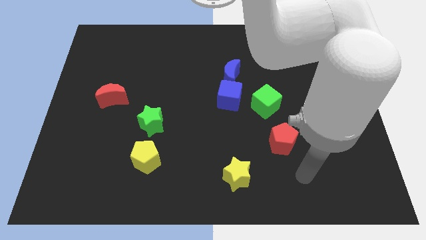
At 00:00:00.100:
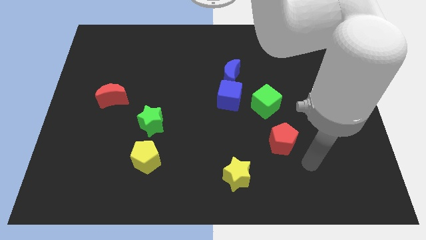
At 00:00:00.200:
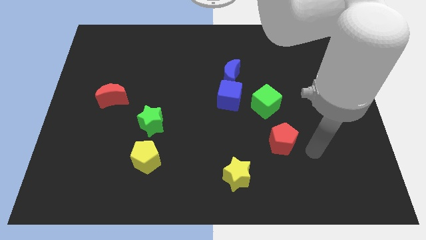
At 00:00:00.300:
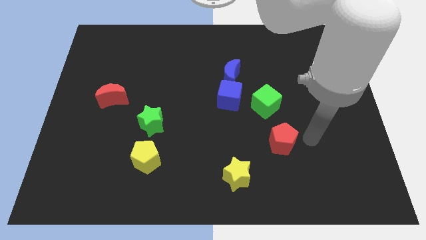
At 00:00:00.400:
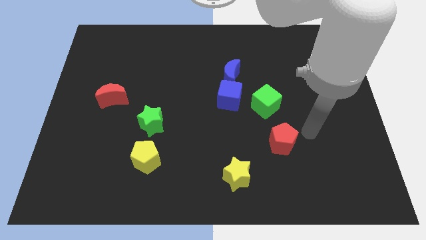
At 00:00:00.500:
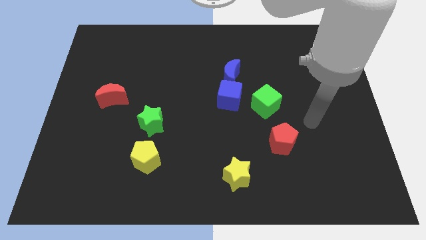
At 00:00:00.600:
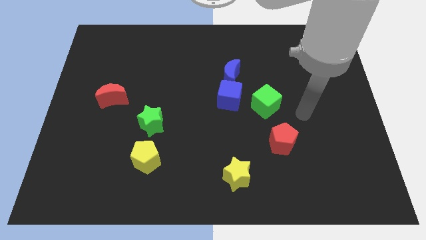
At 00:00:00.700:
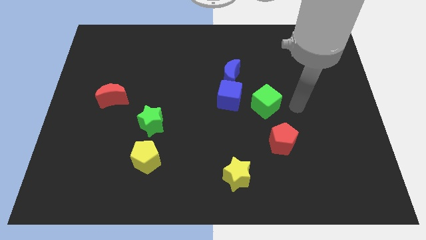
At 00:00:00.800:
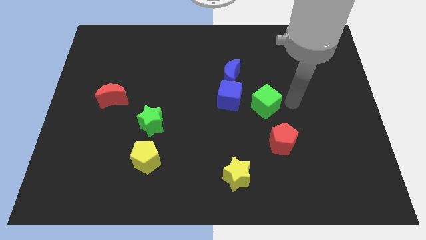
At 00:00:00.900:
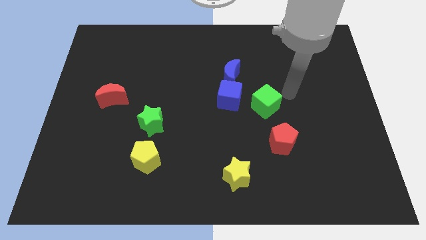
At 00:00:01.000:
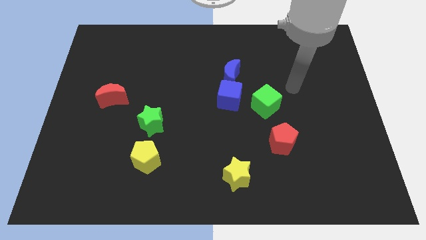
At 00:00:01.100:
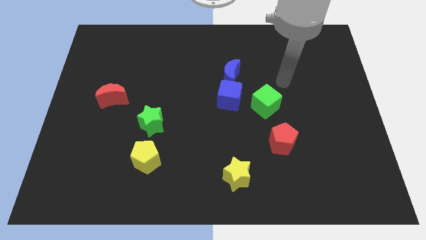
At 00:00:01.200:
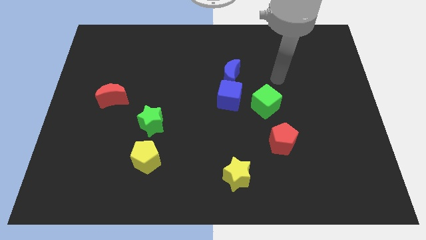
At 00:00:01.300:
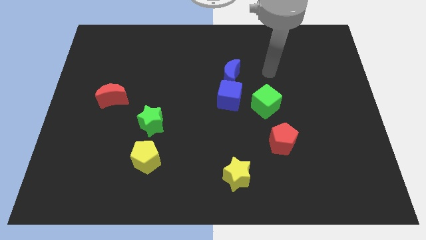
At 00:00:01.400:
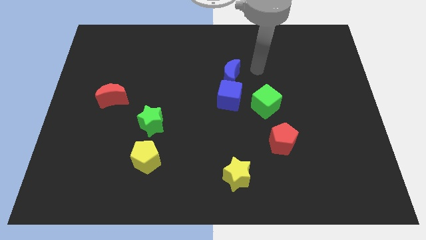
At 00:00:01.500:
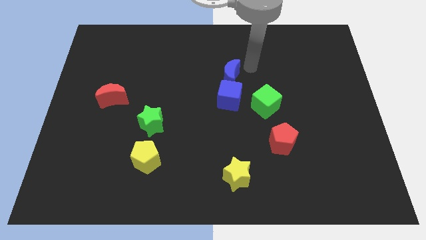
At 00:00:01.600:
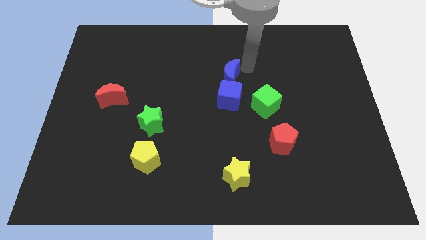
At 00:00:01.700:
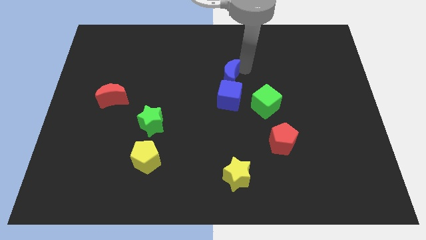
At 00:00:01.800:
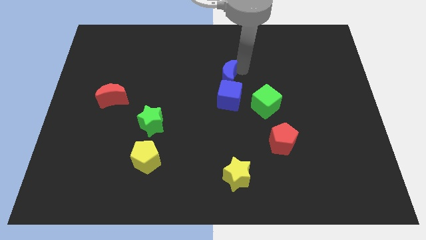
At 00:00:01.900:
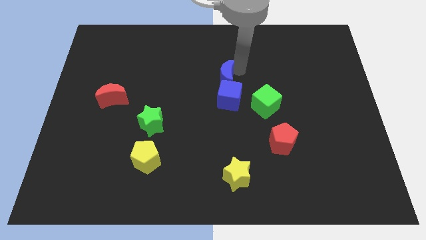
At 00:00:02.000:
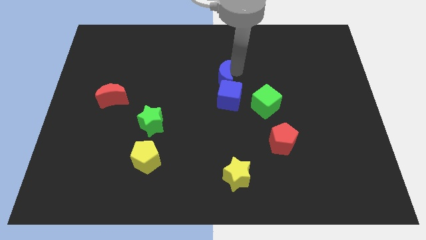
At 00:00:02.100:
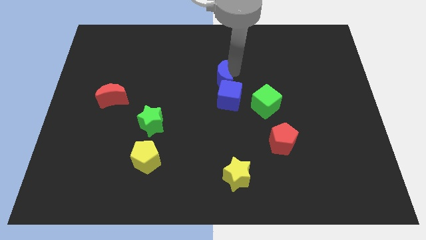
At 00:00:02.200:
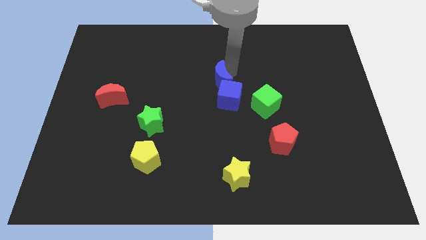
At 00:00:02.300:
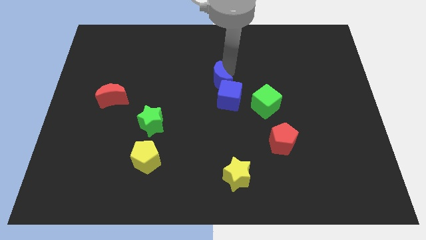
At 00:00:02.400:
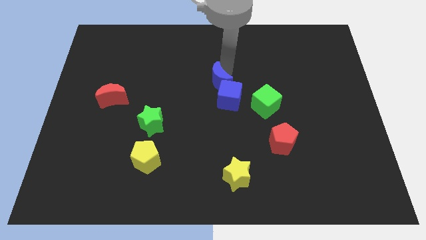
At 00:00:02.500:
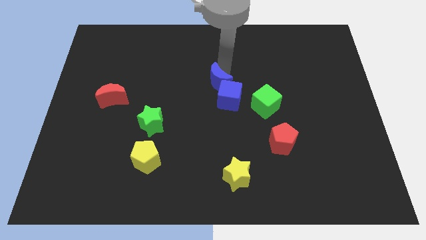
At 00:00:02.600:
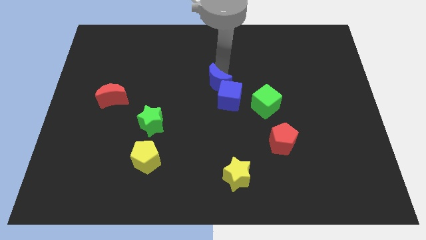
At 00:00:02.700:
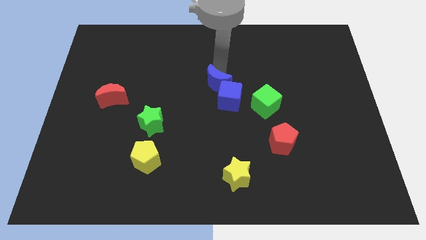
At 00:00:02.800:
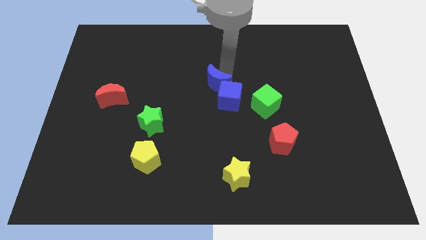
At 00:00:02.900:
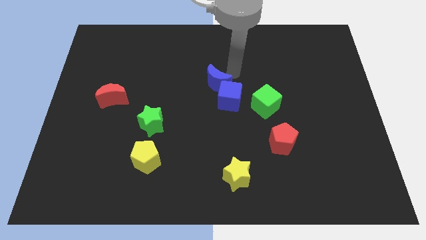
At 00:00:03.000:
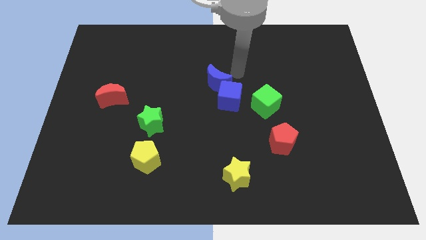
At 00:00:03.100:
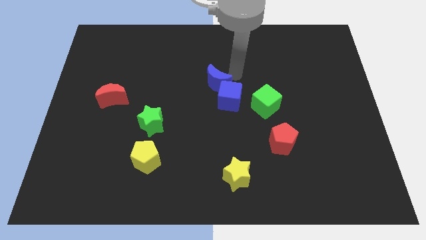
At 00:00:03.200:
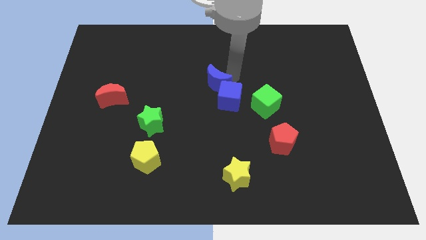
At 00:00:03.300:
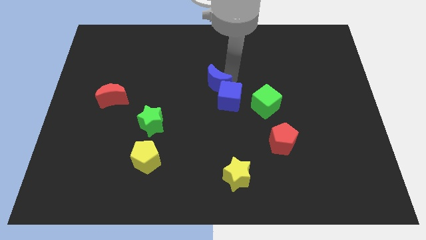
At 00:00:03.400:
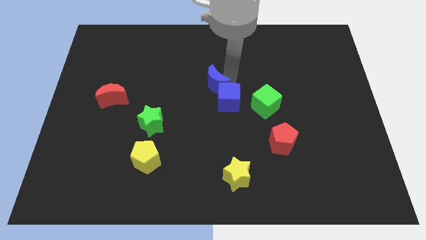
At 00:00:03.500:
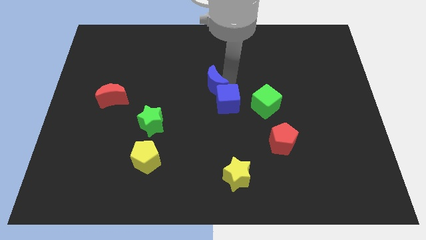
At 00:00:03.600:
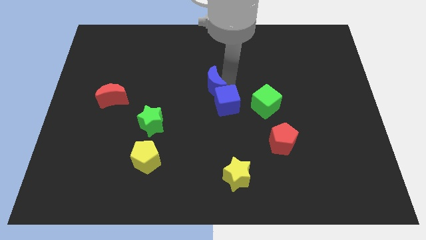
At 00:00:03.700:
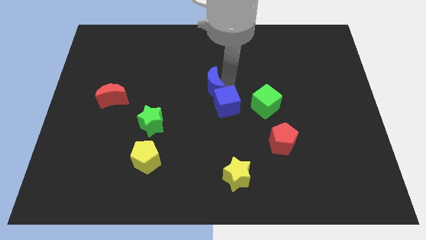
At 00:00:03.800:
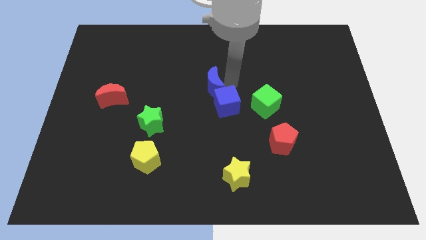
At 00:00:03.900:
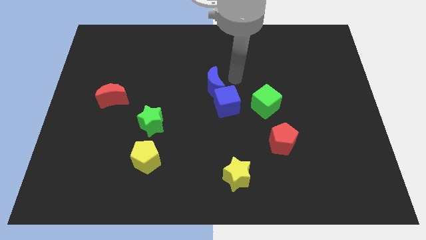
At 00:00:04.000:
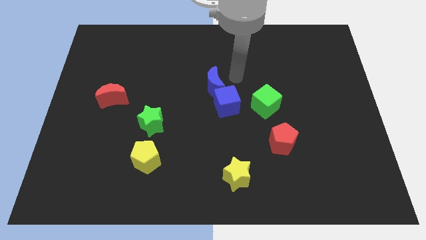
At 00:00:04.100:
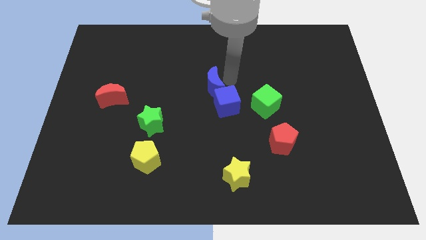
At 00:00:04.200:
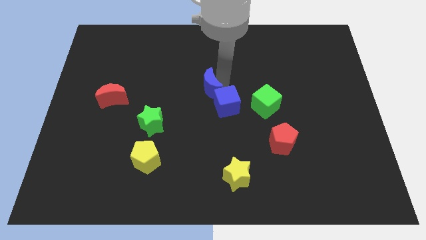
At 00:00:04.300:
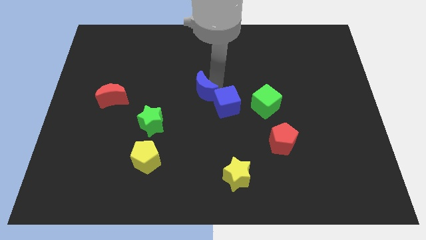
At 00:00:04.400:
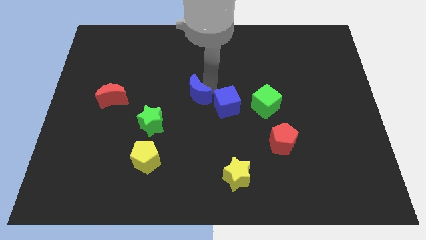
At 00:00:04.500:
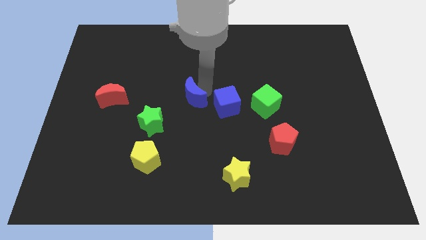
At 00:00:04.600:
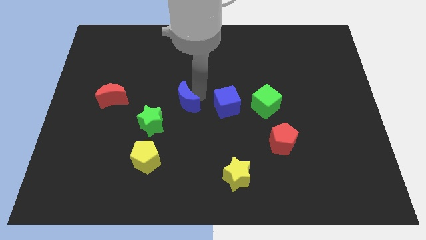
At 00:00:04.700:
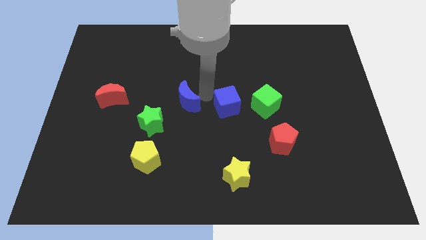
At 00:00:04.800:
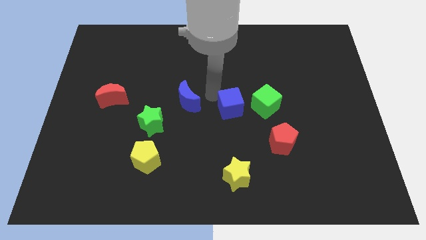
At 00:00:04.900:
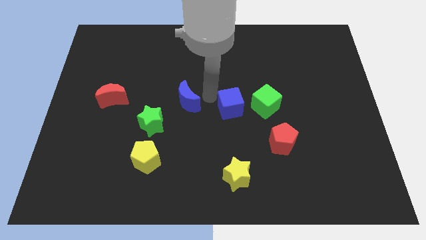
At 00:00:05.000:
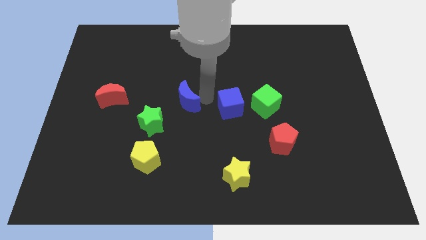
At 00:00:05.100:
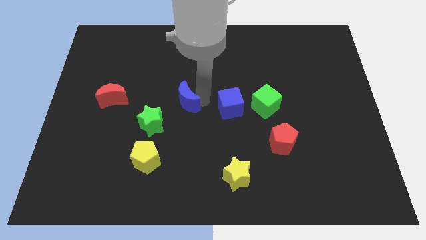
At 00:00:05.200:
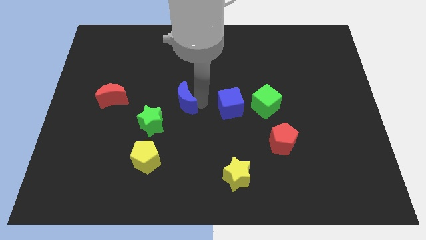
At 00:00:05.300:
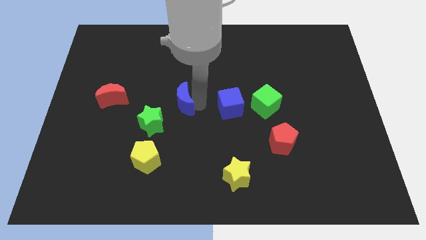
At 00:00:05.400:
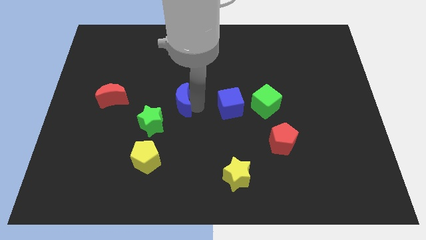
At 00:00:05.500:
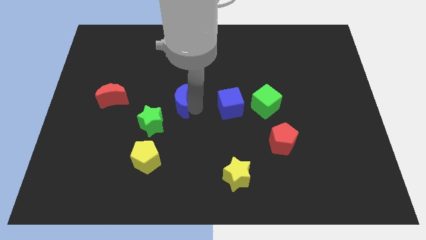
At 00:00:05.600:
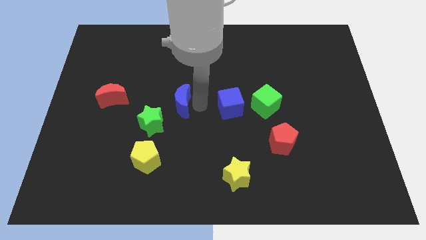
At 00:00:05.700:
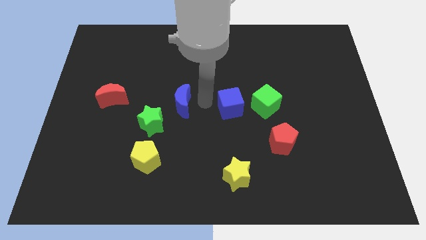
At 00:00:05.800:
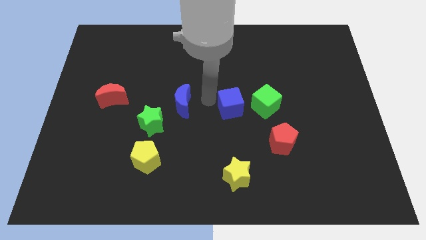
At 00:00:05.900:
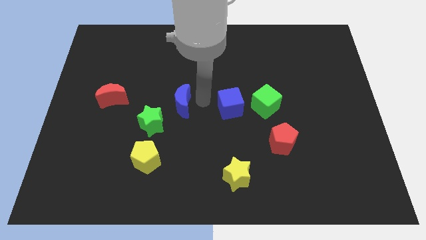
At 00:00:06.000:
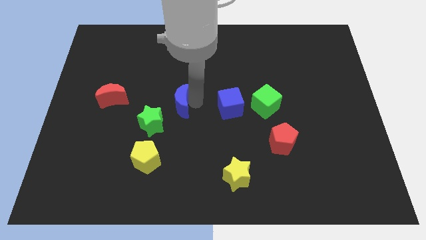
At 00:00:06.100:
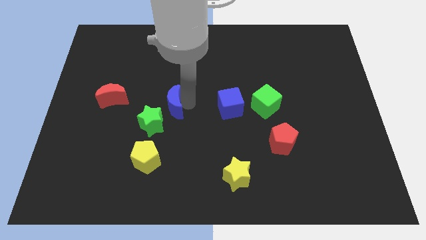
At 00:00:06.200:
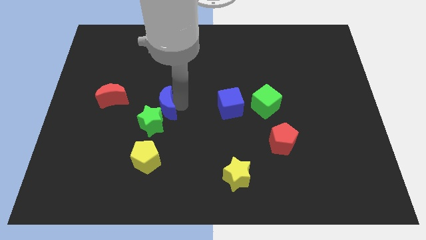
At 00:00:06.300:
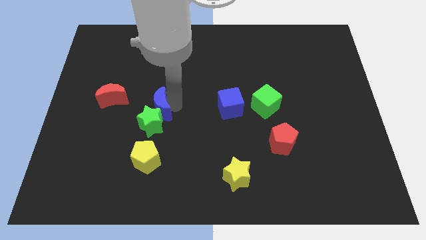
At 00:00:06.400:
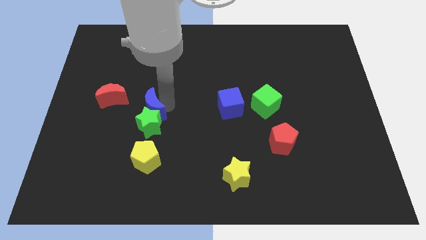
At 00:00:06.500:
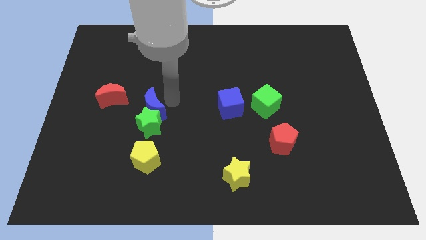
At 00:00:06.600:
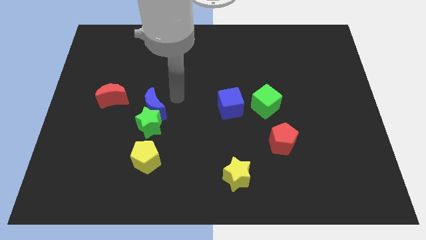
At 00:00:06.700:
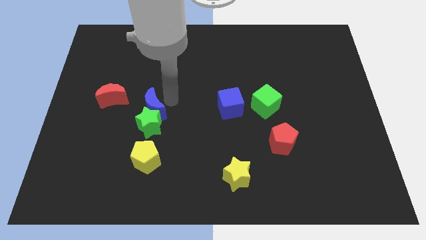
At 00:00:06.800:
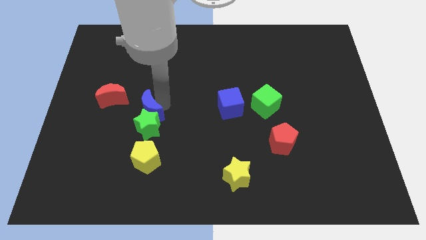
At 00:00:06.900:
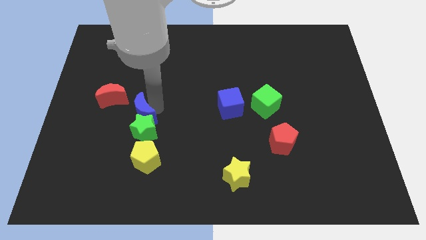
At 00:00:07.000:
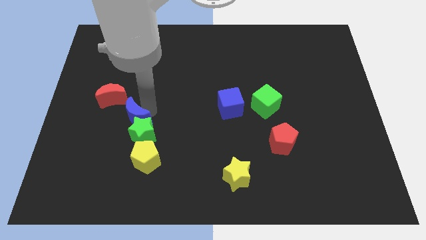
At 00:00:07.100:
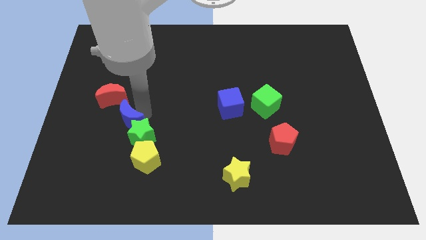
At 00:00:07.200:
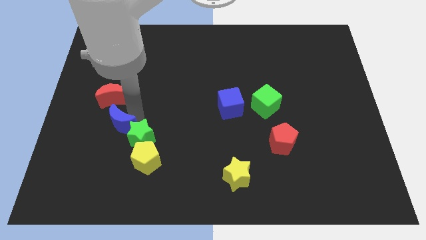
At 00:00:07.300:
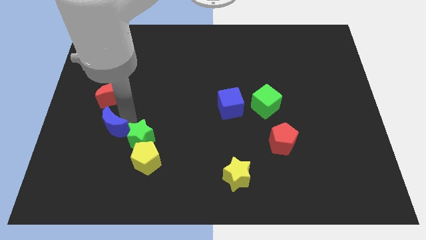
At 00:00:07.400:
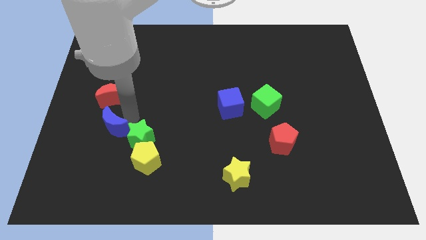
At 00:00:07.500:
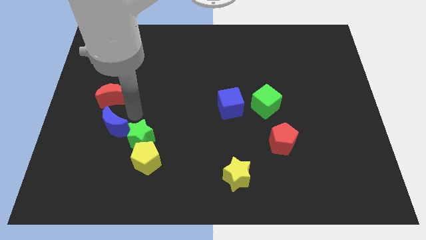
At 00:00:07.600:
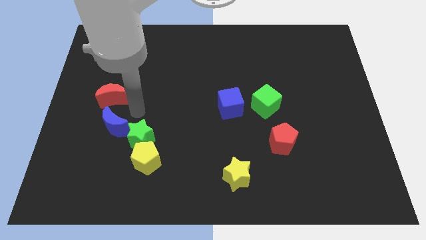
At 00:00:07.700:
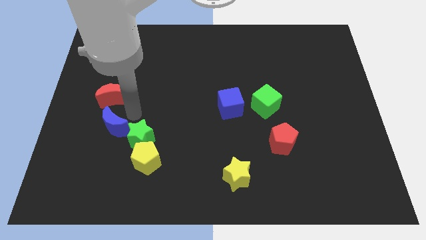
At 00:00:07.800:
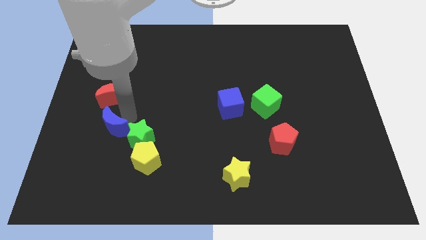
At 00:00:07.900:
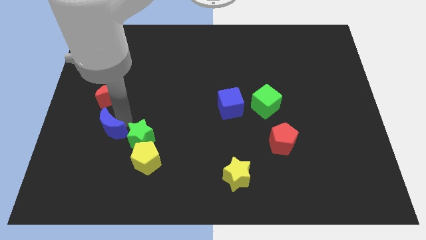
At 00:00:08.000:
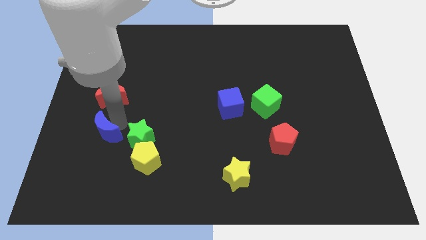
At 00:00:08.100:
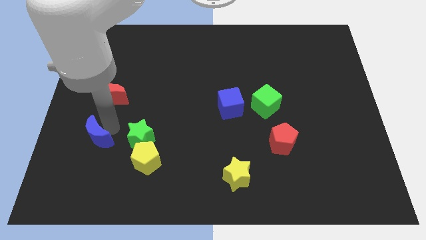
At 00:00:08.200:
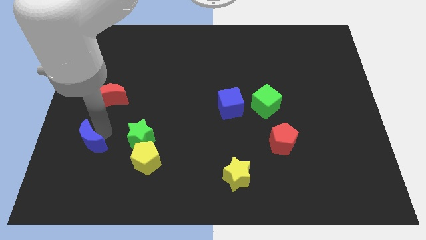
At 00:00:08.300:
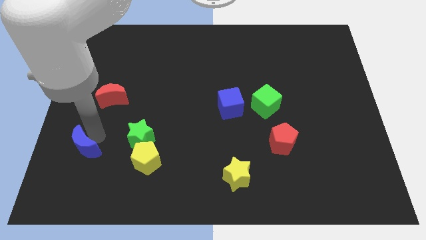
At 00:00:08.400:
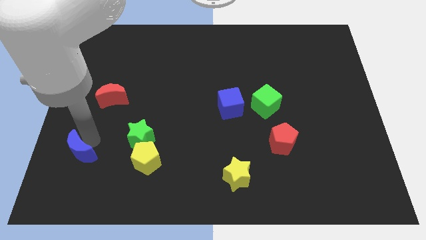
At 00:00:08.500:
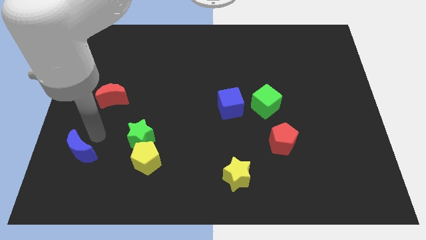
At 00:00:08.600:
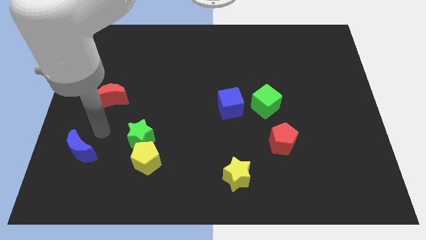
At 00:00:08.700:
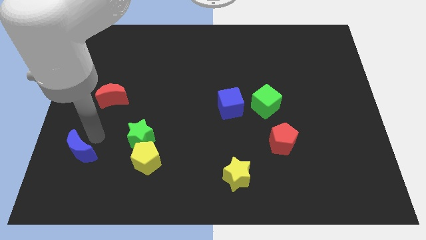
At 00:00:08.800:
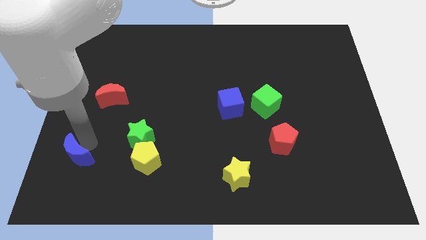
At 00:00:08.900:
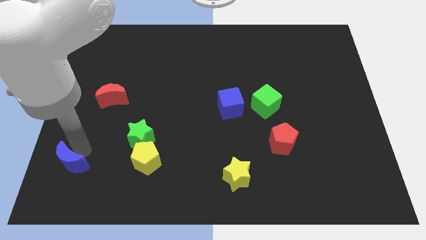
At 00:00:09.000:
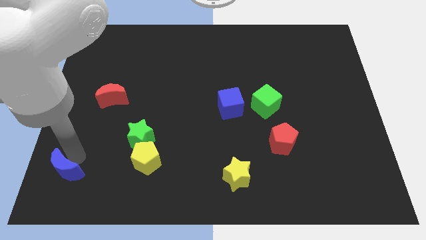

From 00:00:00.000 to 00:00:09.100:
push the blue moon to the lower left corner
